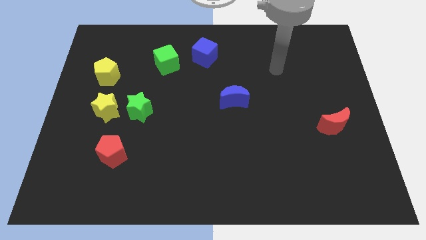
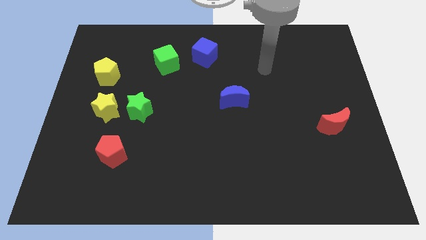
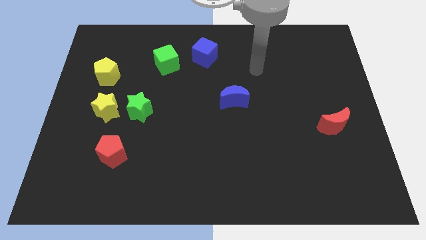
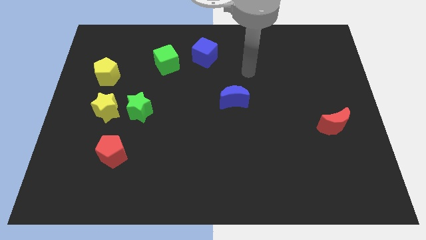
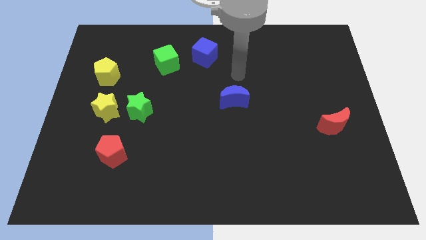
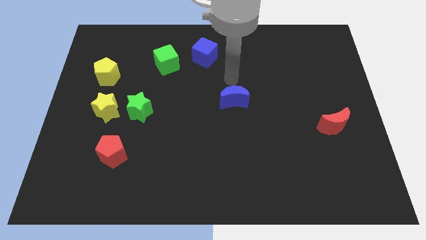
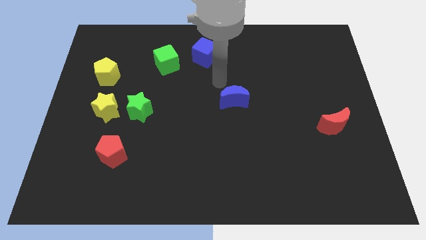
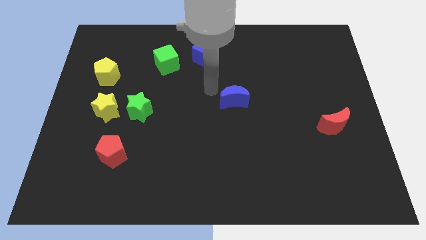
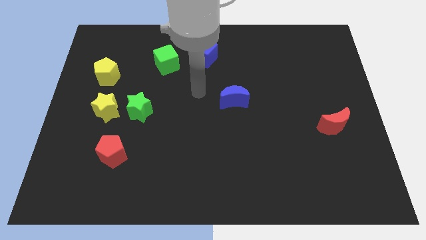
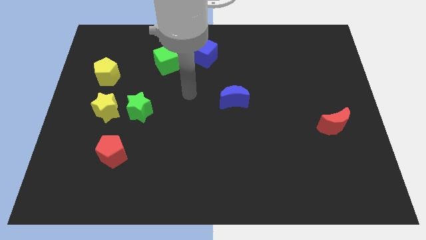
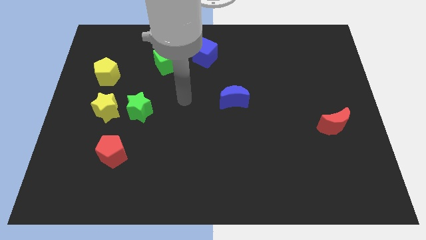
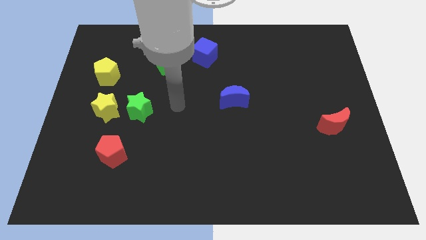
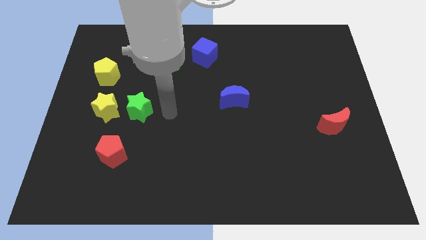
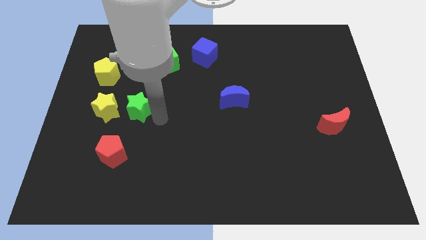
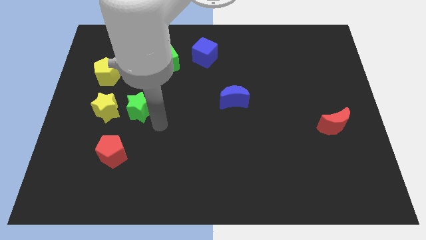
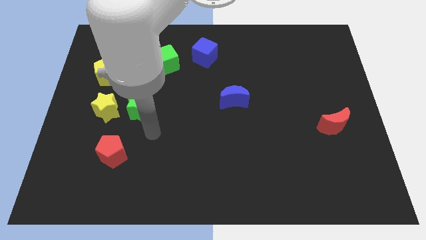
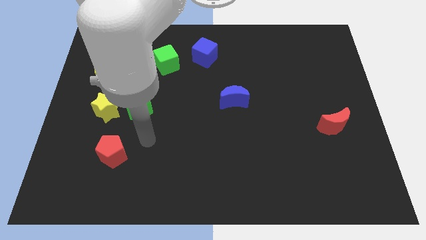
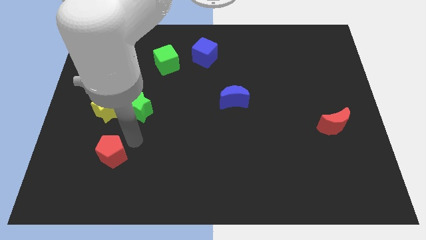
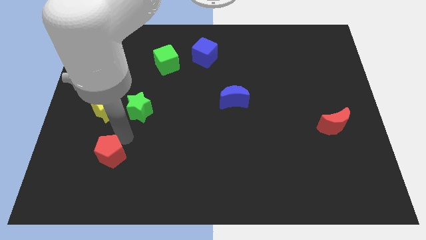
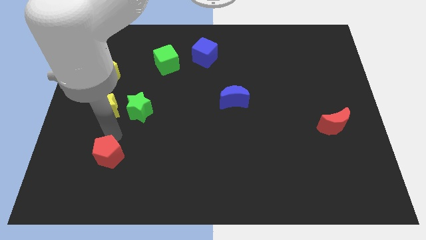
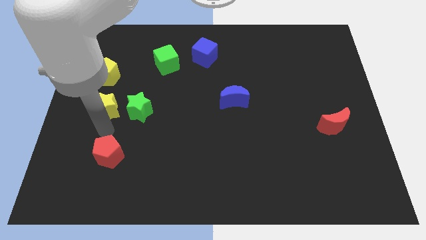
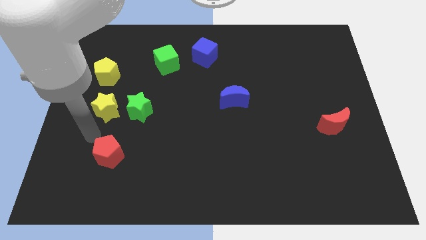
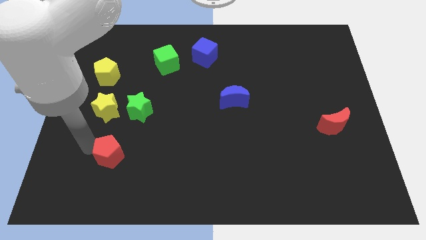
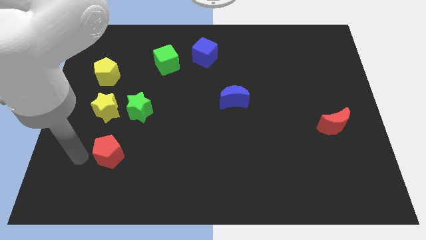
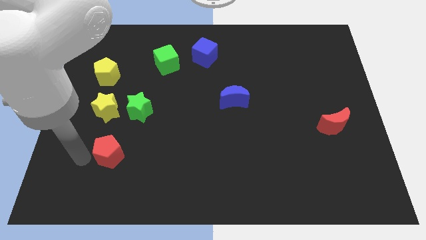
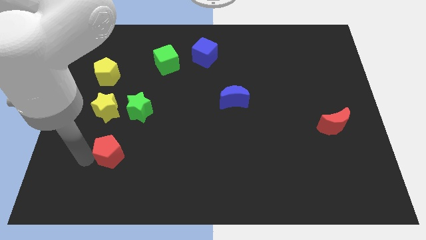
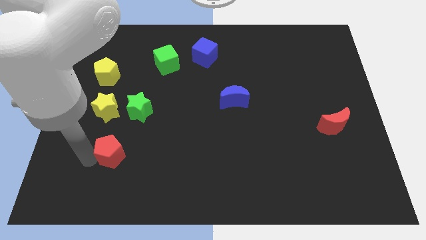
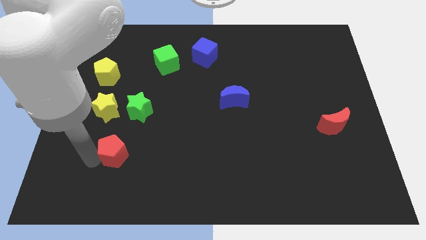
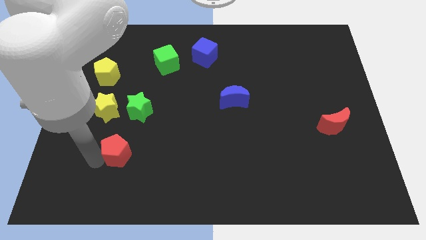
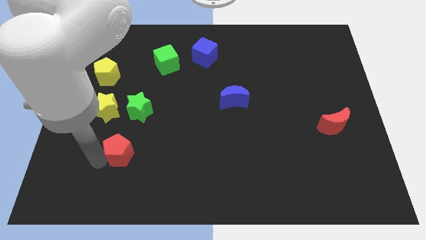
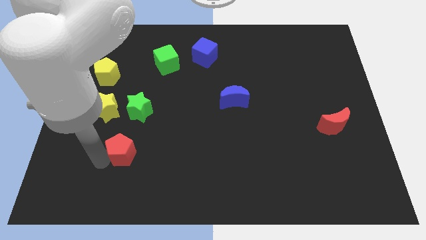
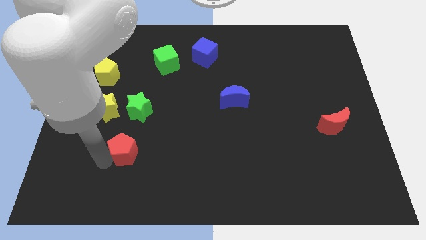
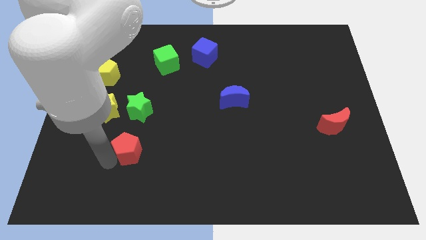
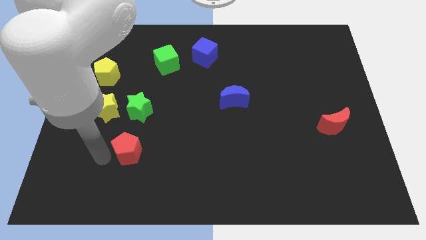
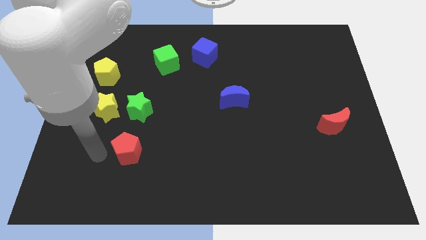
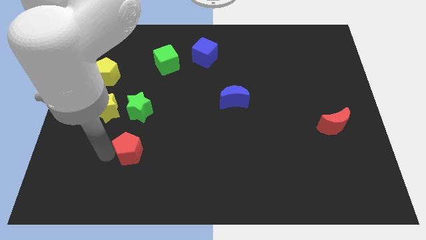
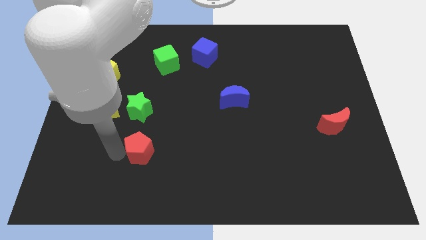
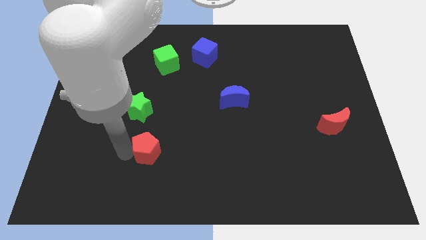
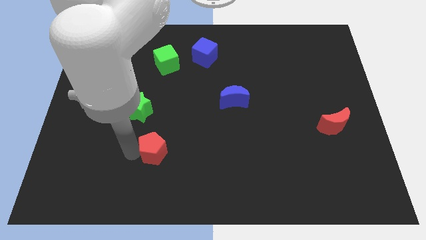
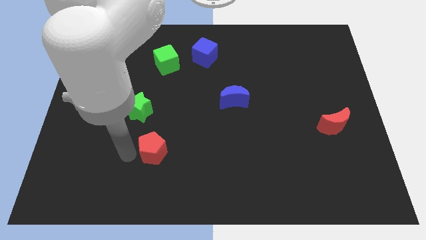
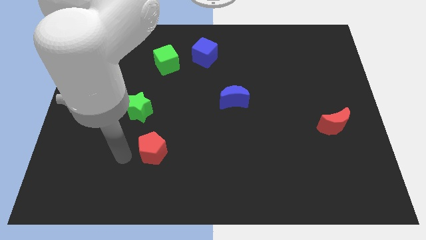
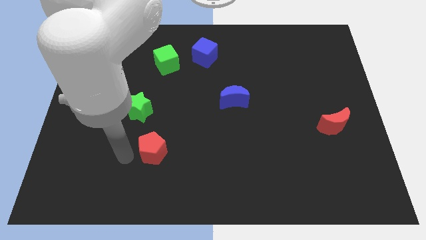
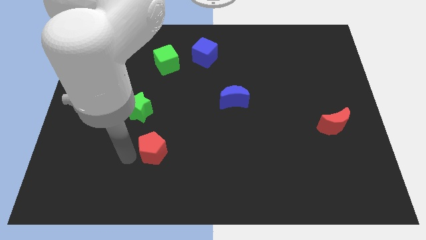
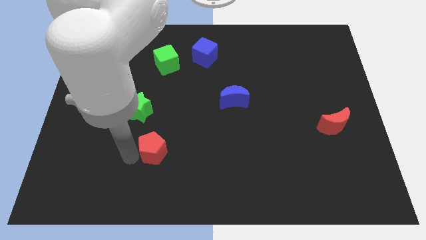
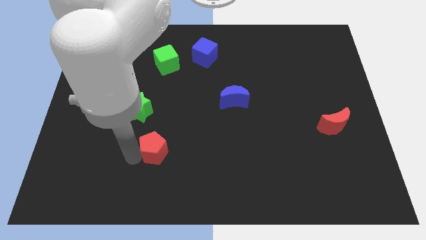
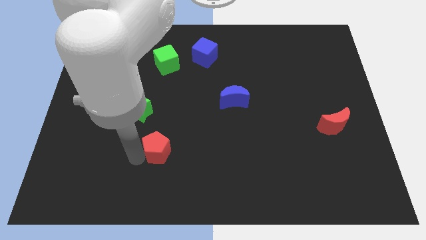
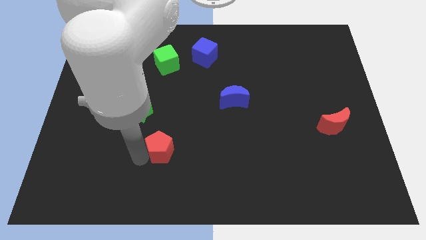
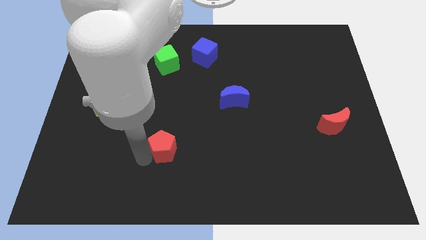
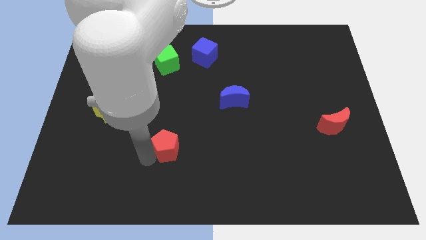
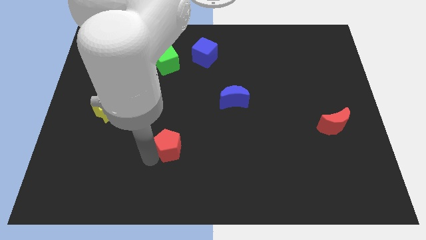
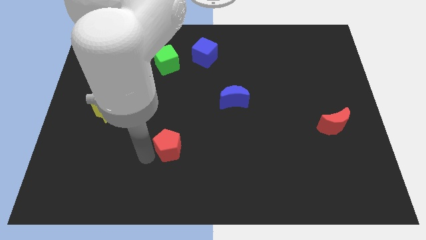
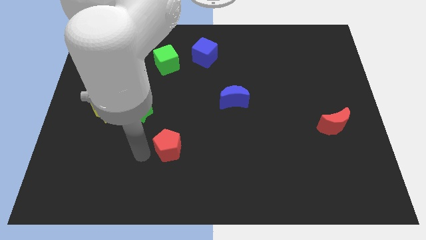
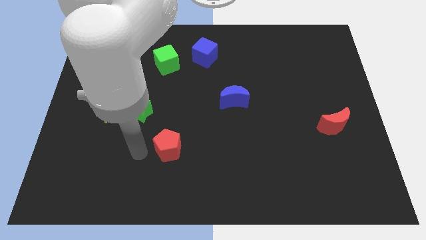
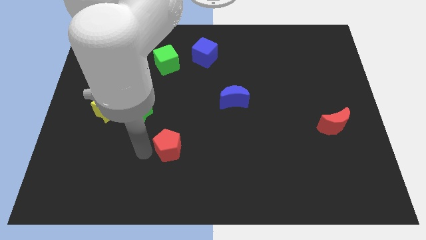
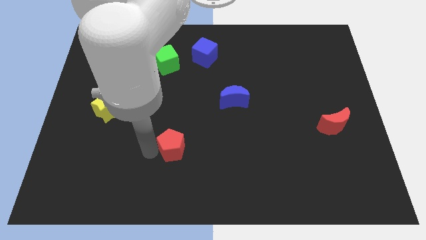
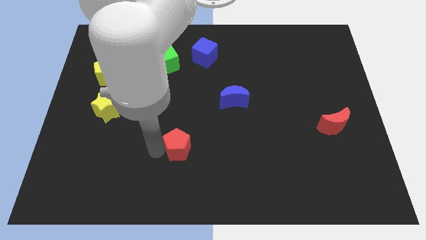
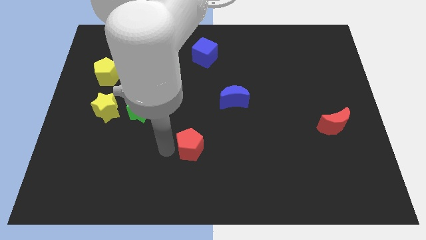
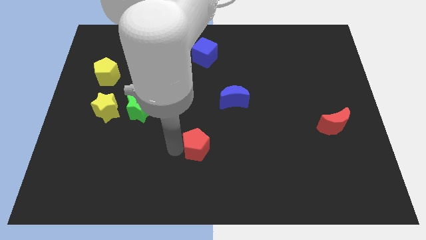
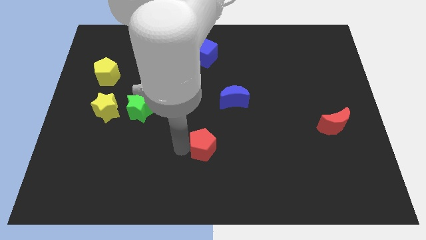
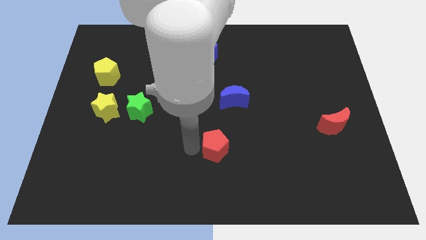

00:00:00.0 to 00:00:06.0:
move the red pentagon to the right

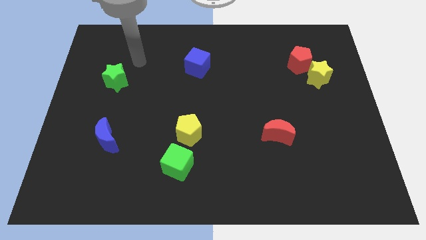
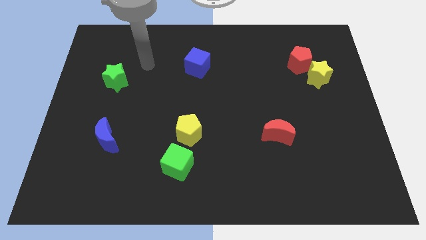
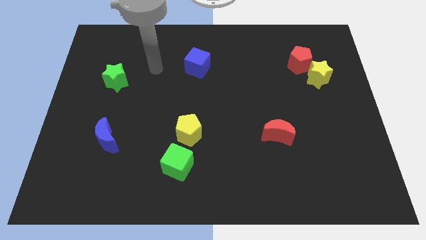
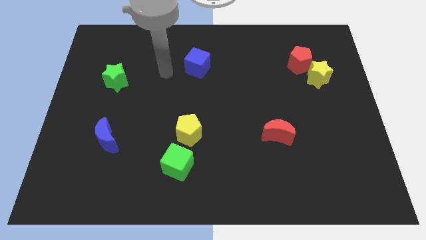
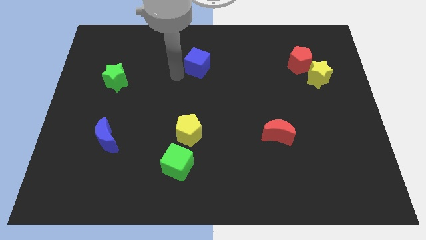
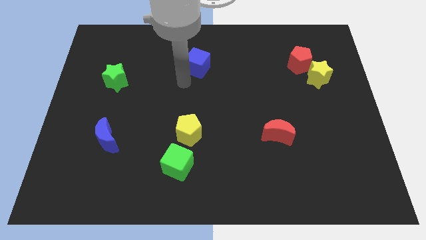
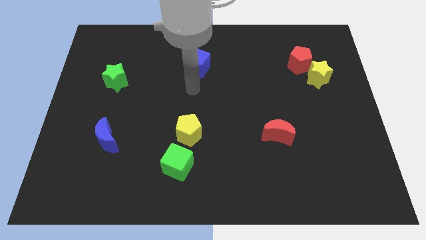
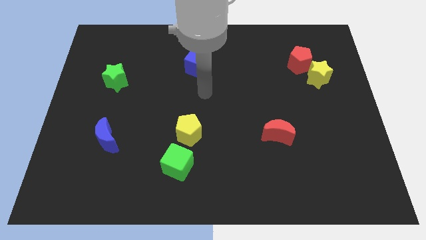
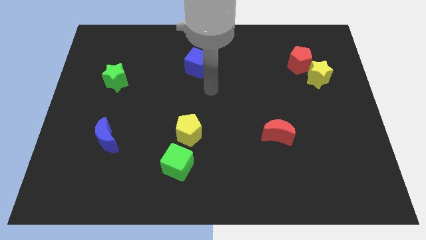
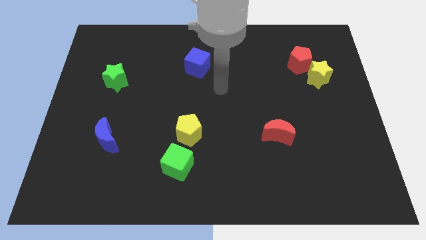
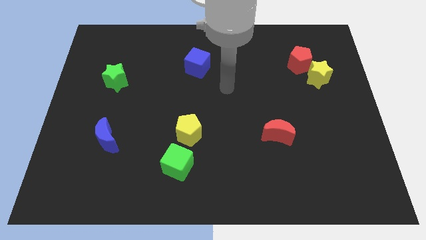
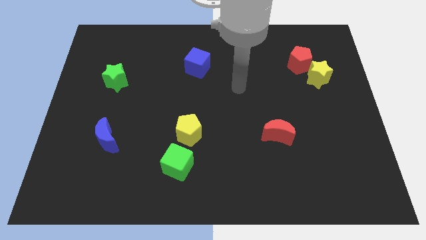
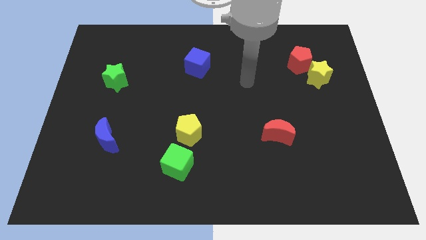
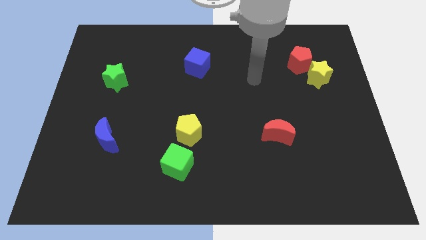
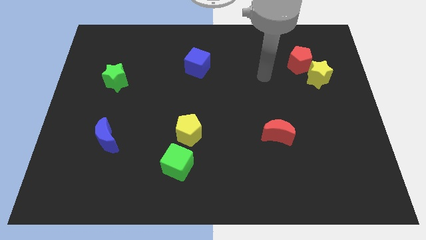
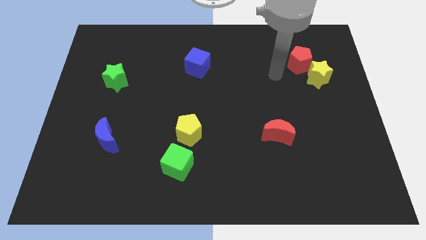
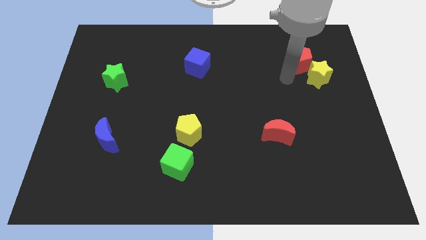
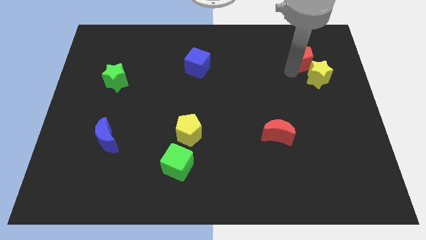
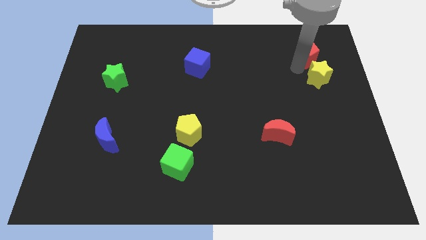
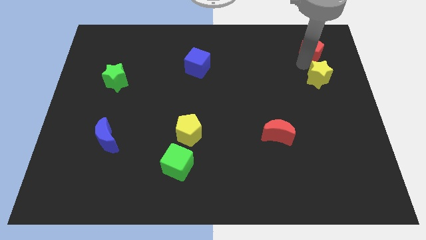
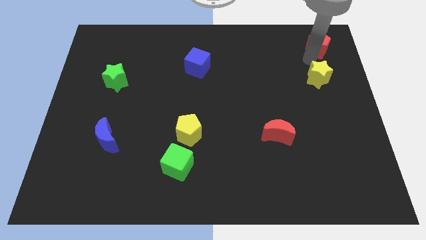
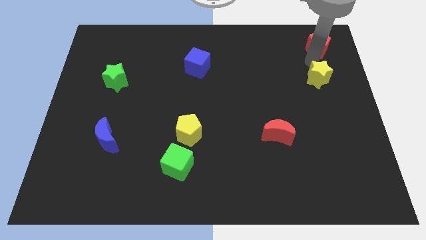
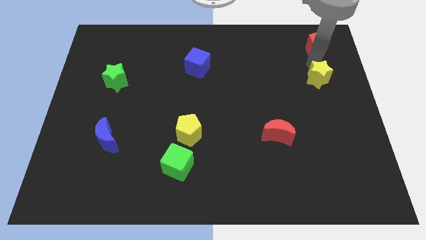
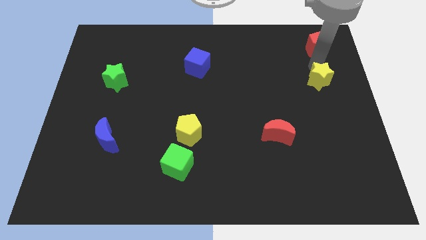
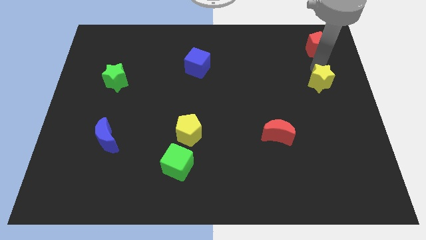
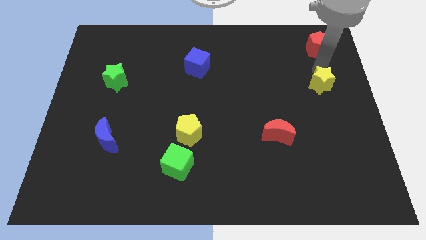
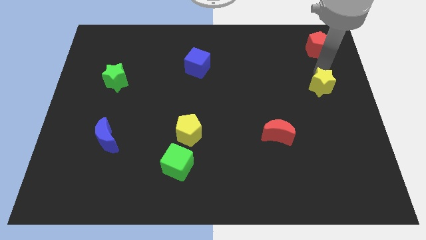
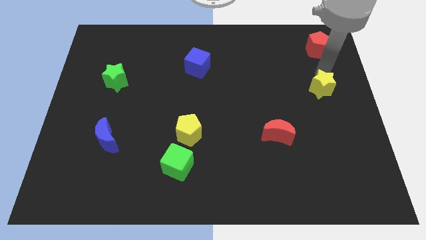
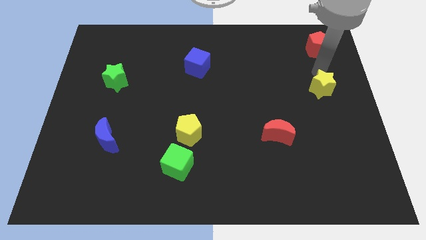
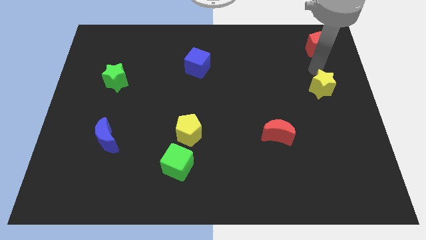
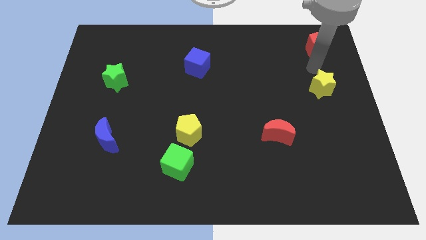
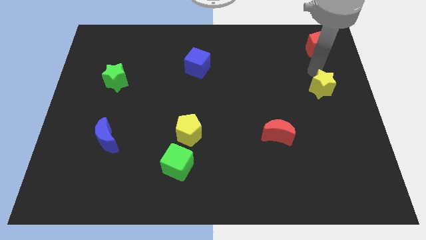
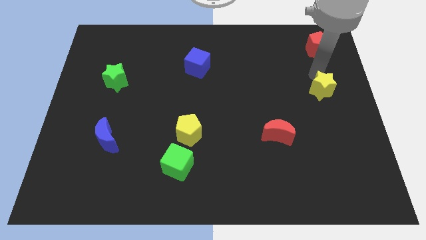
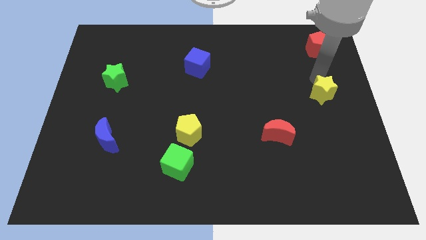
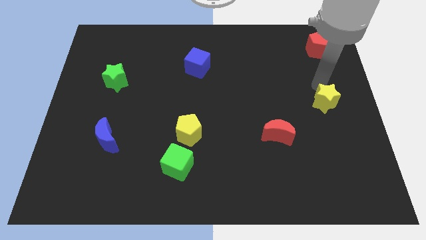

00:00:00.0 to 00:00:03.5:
slightly slide the yellow star down
